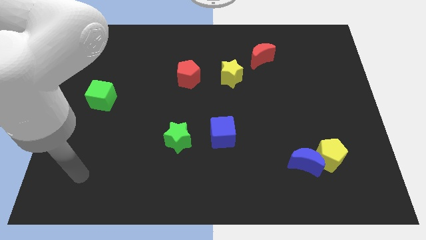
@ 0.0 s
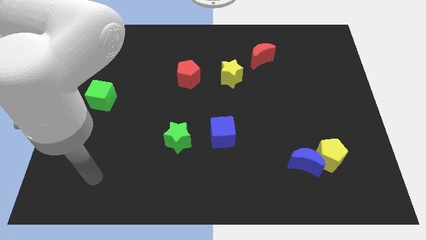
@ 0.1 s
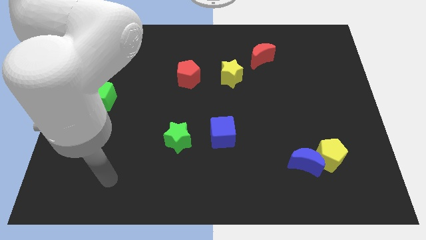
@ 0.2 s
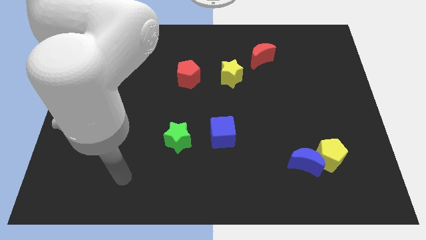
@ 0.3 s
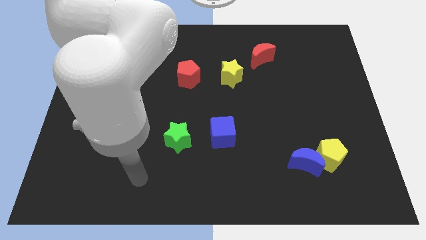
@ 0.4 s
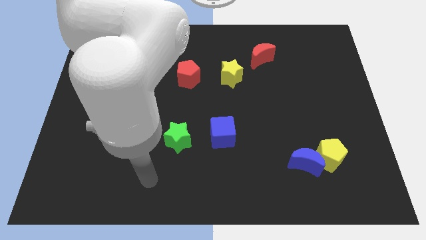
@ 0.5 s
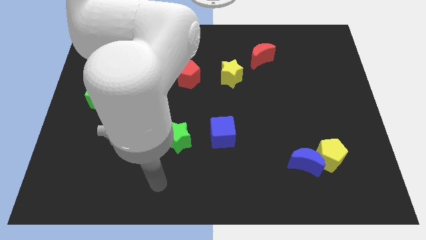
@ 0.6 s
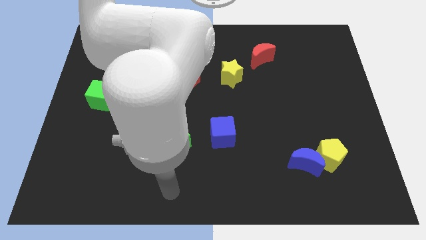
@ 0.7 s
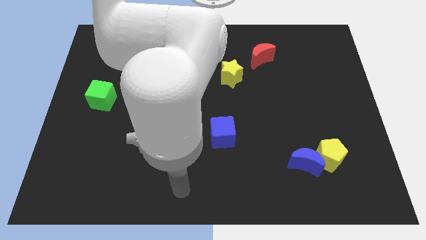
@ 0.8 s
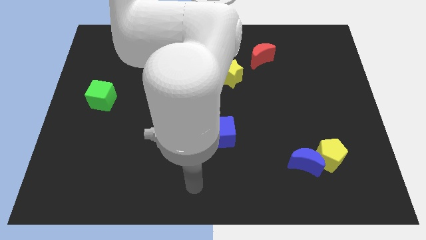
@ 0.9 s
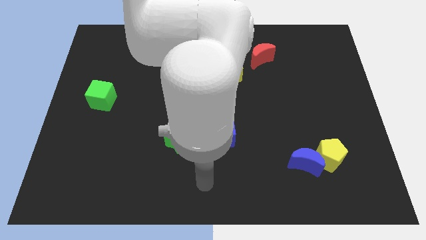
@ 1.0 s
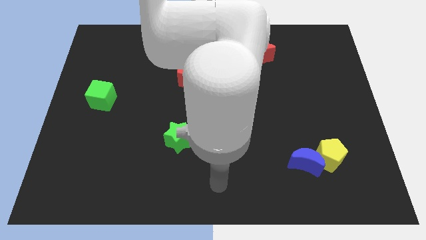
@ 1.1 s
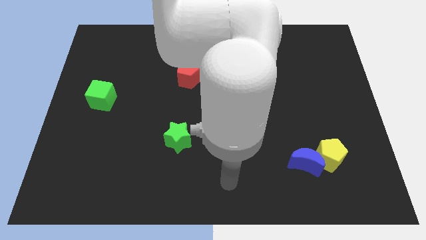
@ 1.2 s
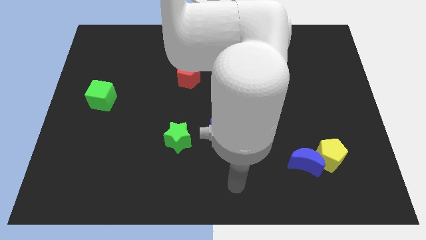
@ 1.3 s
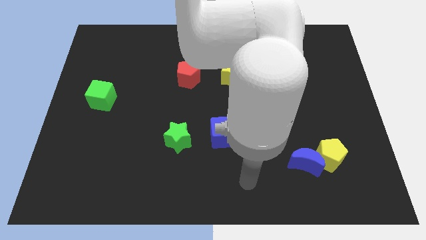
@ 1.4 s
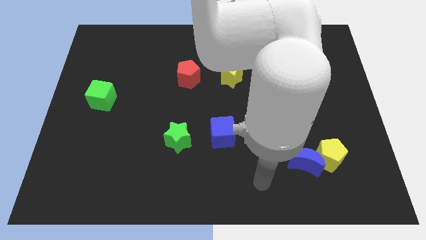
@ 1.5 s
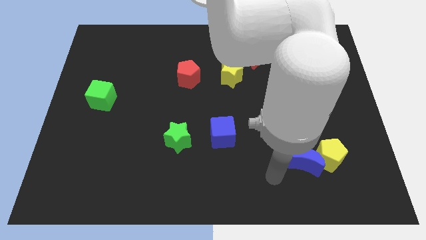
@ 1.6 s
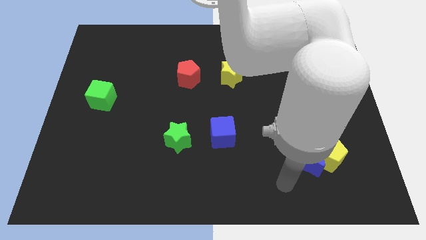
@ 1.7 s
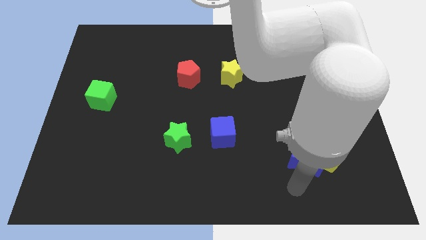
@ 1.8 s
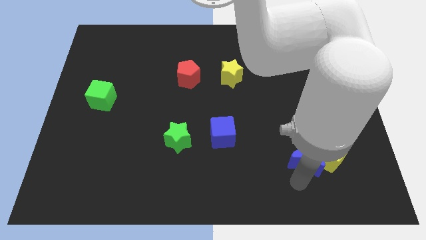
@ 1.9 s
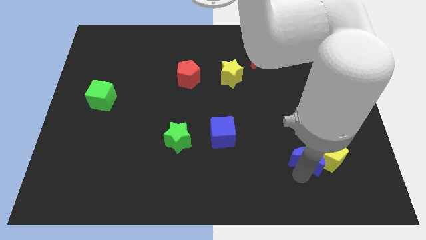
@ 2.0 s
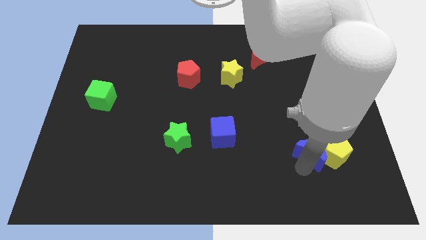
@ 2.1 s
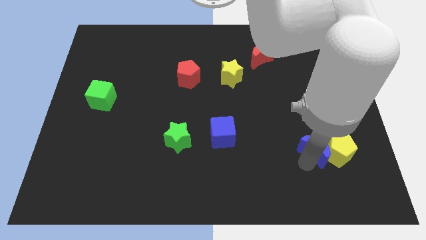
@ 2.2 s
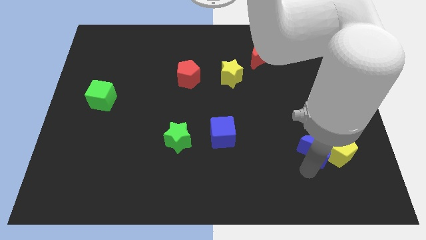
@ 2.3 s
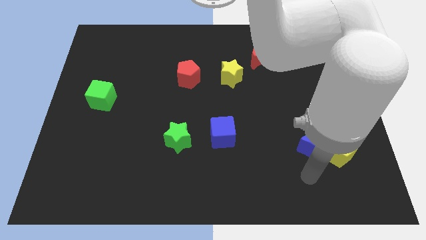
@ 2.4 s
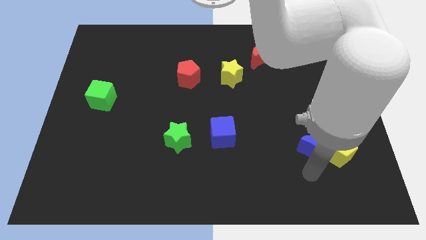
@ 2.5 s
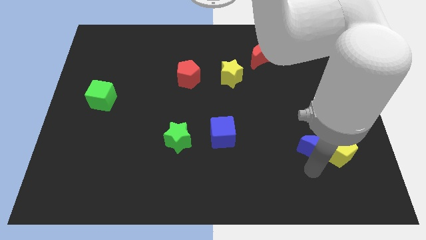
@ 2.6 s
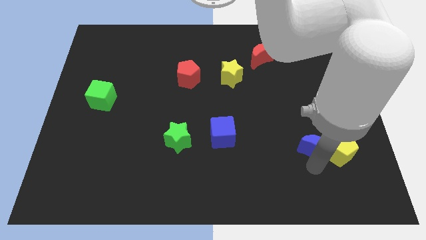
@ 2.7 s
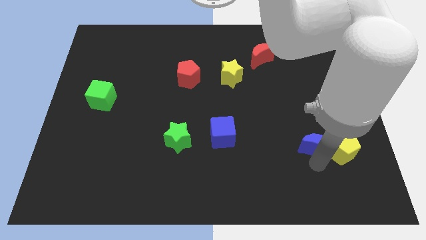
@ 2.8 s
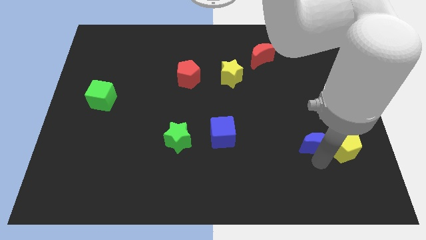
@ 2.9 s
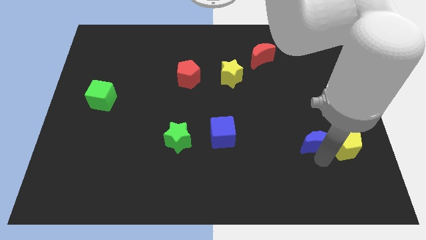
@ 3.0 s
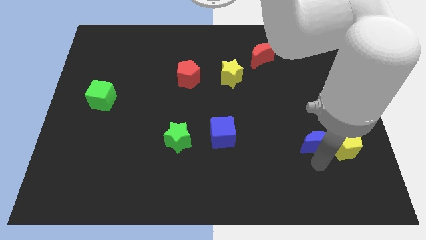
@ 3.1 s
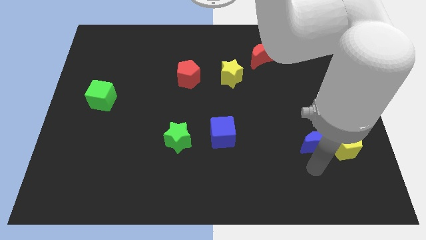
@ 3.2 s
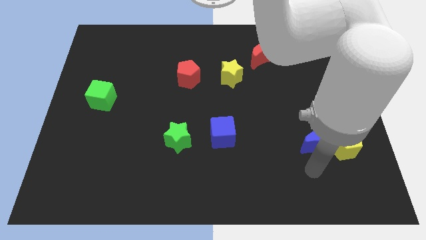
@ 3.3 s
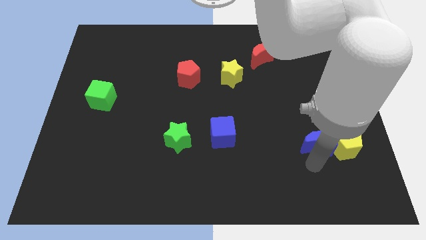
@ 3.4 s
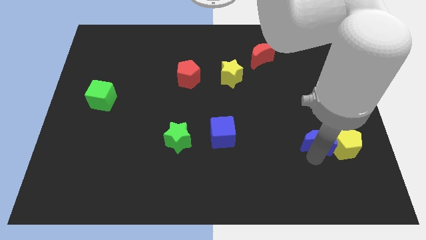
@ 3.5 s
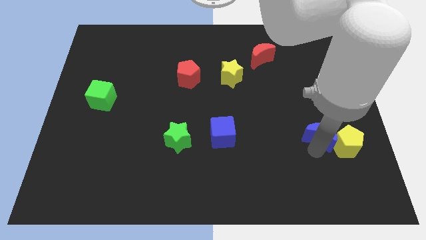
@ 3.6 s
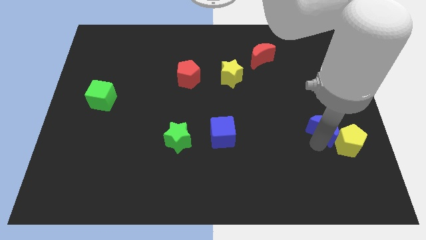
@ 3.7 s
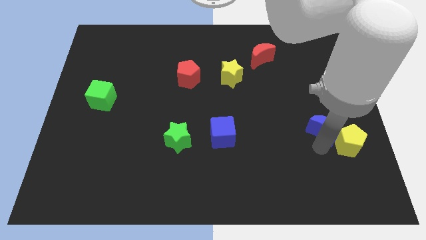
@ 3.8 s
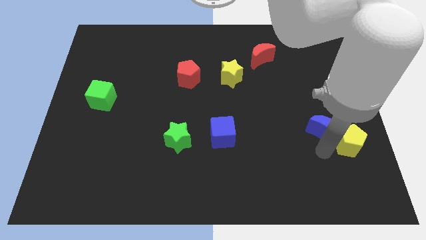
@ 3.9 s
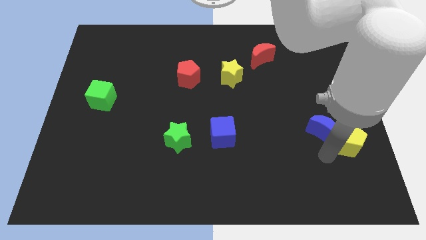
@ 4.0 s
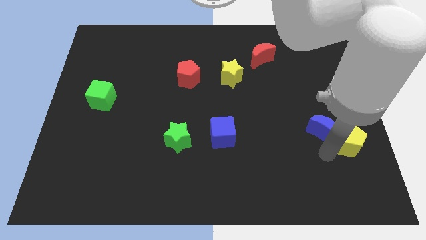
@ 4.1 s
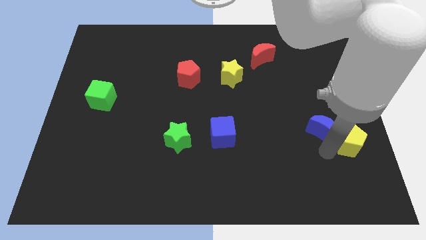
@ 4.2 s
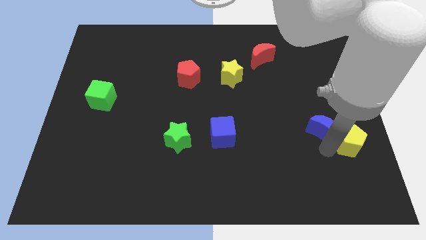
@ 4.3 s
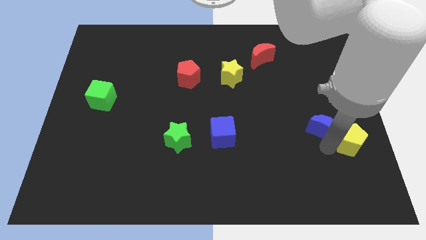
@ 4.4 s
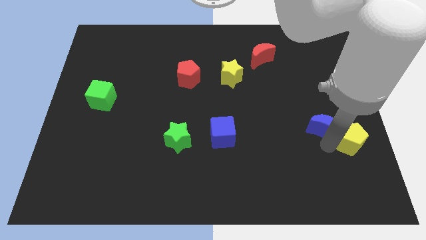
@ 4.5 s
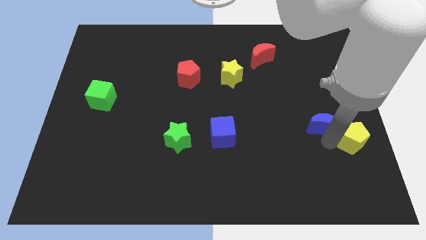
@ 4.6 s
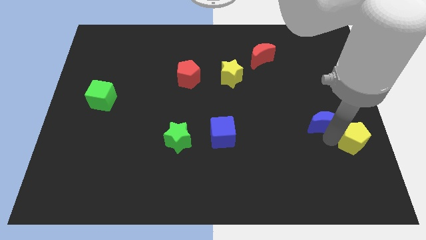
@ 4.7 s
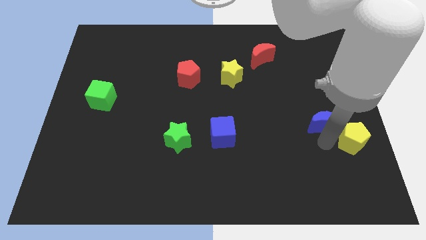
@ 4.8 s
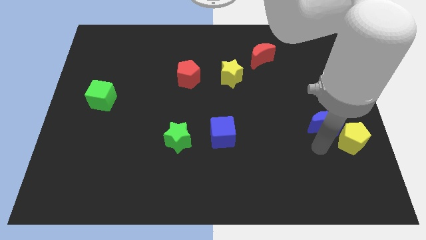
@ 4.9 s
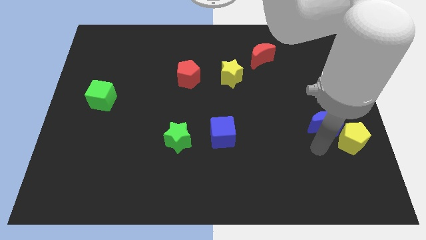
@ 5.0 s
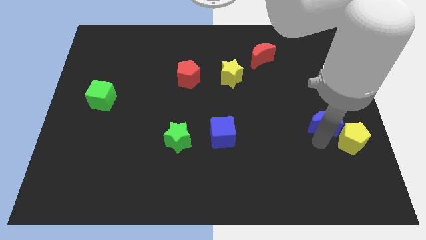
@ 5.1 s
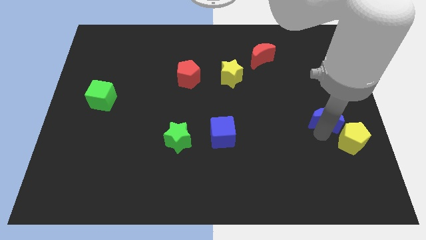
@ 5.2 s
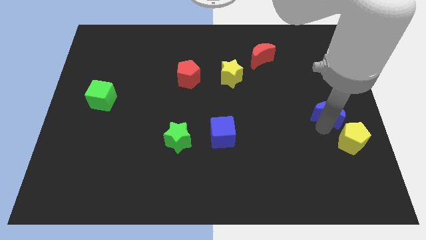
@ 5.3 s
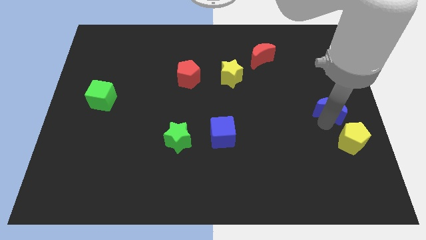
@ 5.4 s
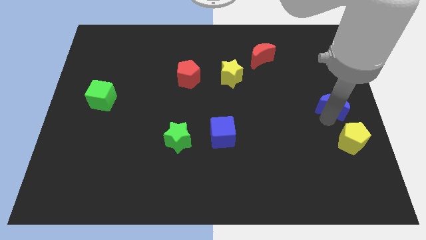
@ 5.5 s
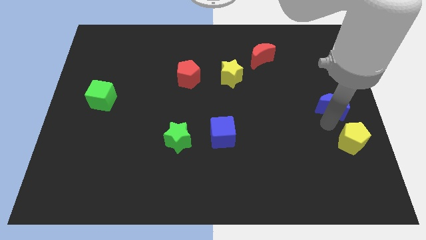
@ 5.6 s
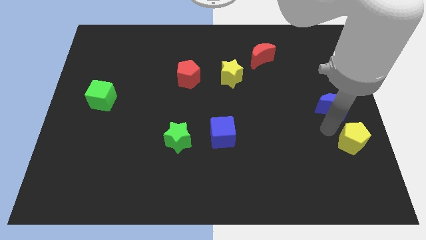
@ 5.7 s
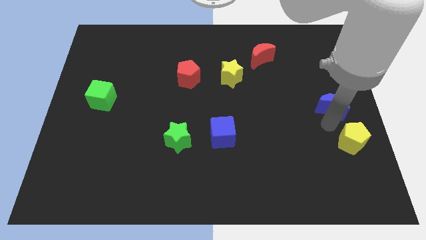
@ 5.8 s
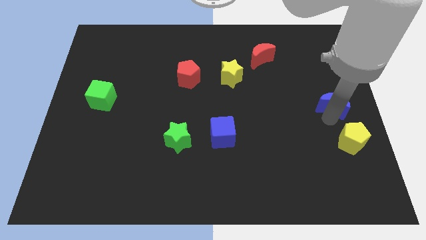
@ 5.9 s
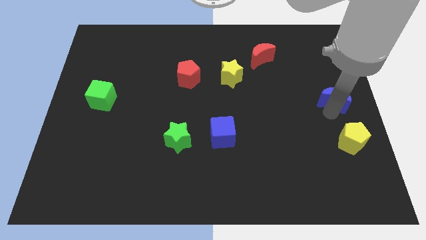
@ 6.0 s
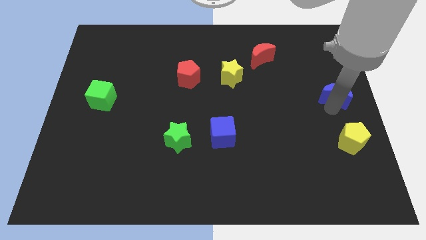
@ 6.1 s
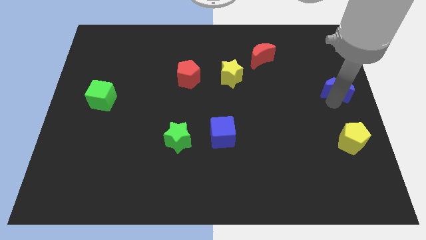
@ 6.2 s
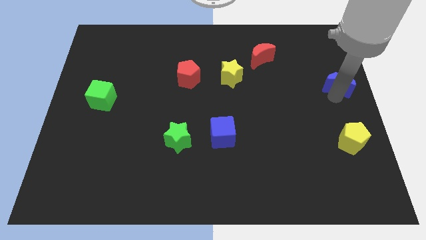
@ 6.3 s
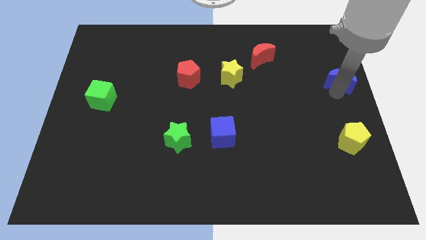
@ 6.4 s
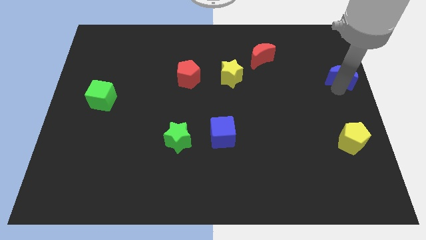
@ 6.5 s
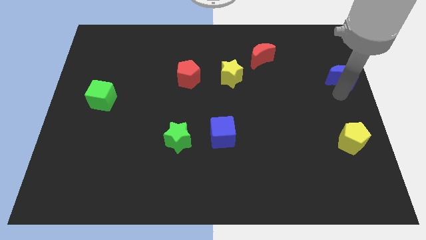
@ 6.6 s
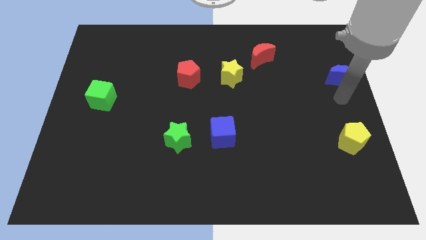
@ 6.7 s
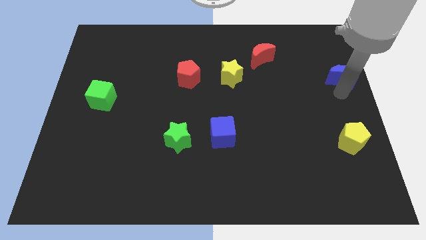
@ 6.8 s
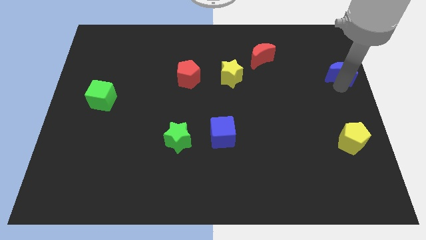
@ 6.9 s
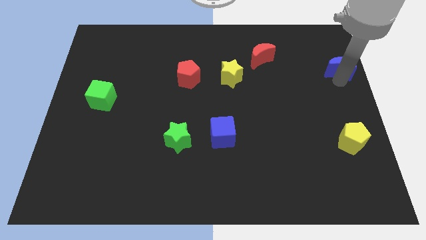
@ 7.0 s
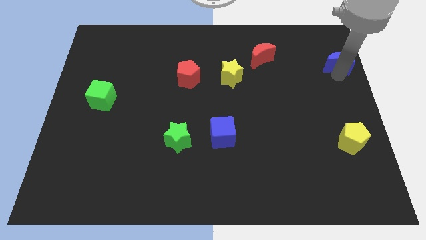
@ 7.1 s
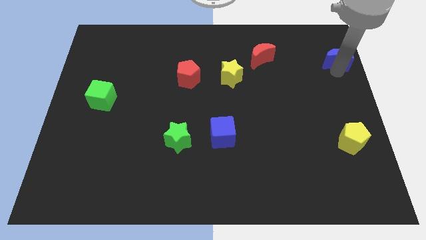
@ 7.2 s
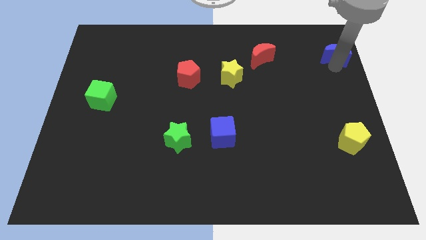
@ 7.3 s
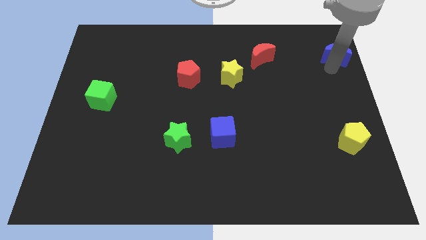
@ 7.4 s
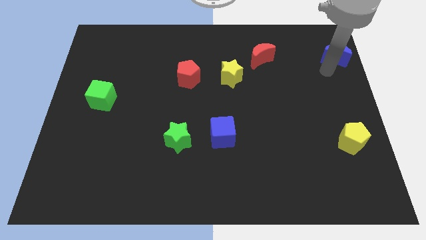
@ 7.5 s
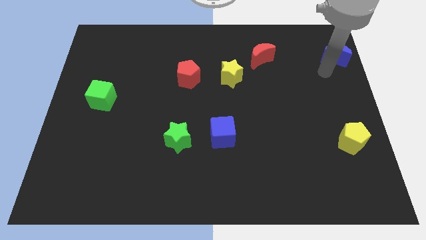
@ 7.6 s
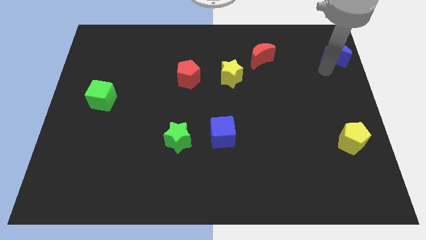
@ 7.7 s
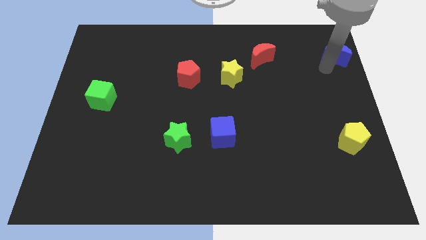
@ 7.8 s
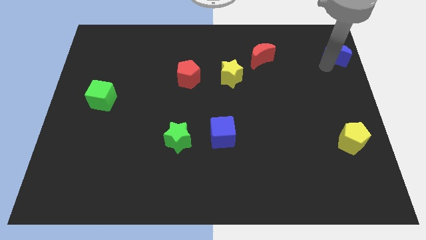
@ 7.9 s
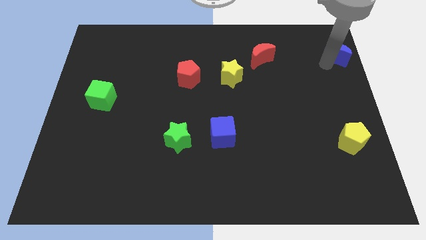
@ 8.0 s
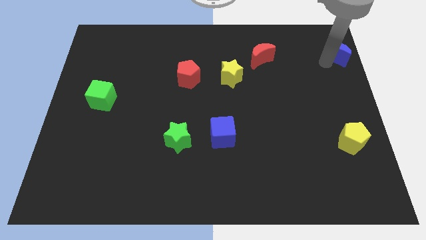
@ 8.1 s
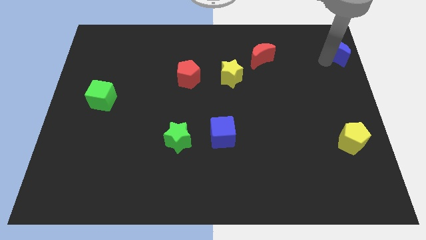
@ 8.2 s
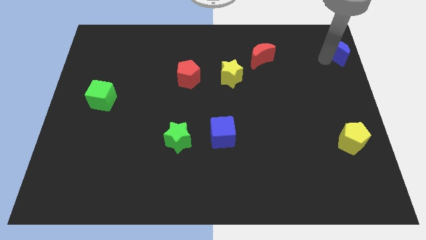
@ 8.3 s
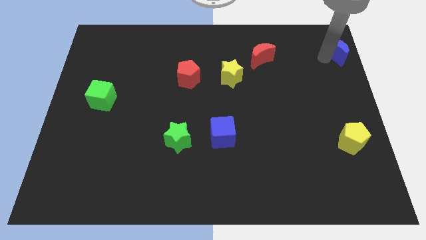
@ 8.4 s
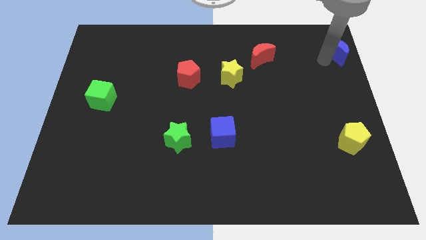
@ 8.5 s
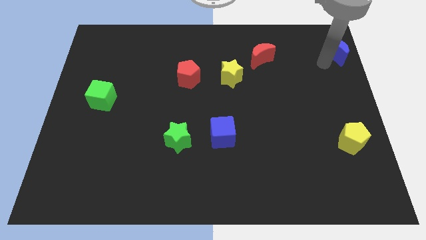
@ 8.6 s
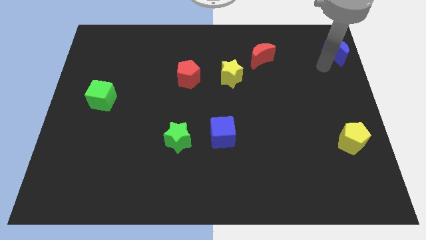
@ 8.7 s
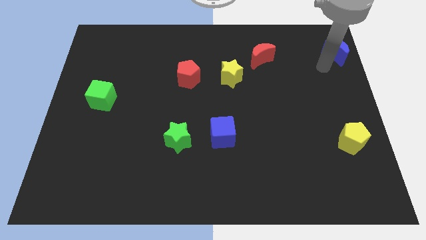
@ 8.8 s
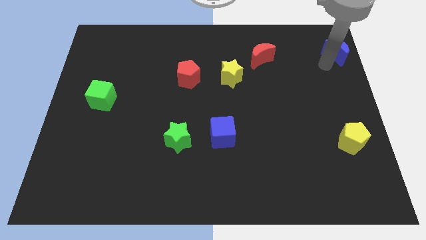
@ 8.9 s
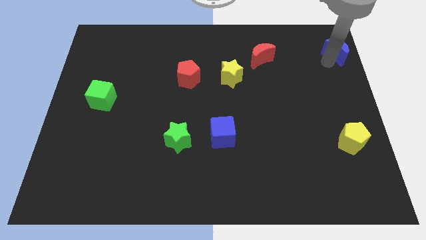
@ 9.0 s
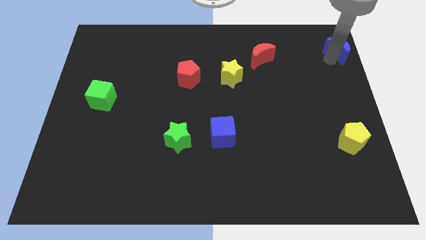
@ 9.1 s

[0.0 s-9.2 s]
slide the blue moon to the top right of the board
